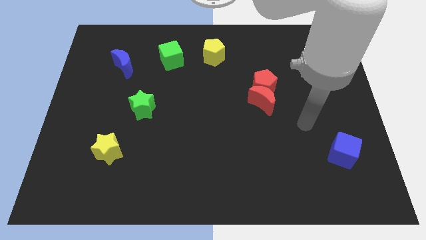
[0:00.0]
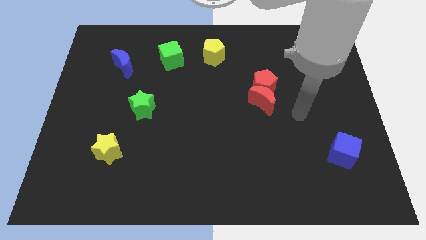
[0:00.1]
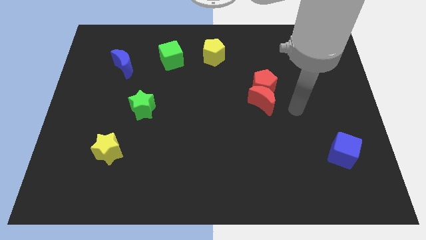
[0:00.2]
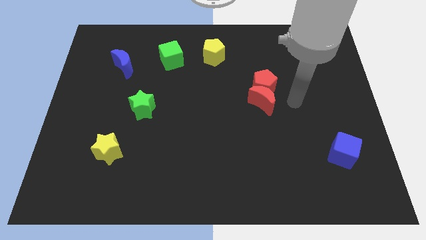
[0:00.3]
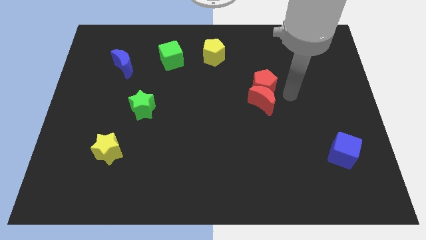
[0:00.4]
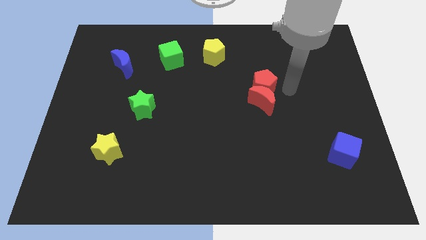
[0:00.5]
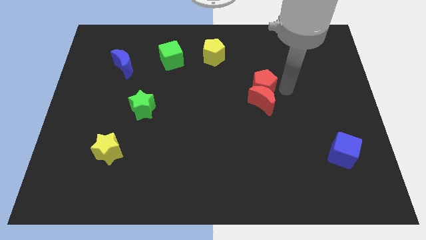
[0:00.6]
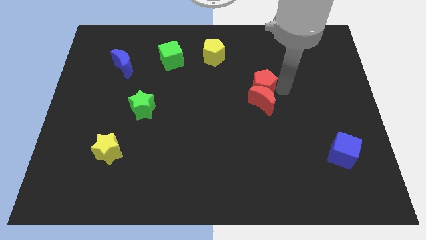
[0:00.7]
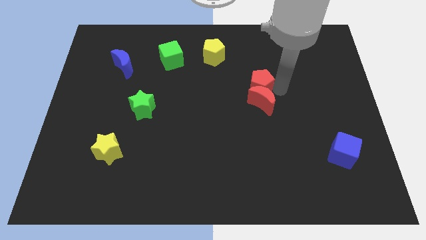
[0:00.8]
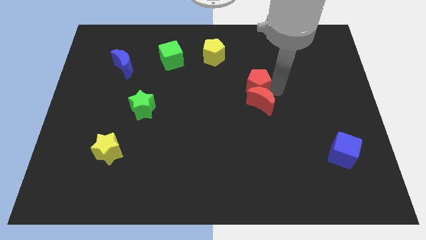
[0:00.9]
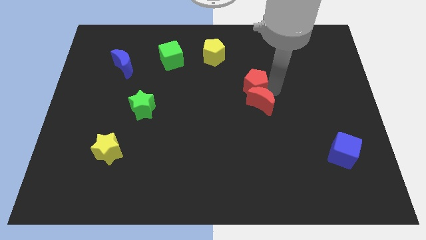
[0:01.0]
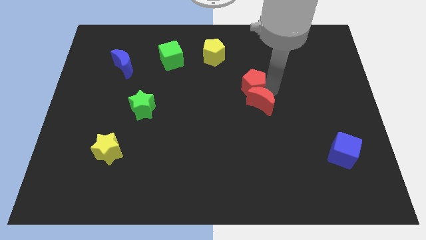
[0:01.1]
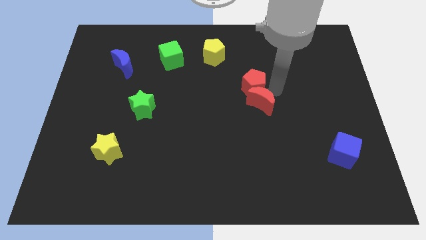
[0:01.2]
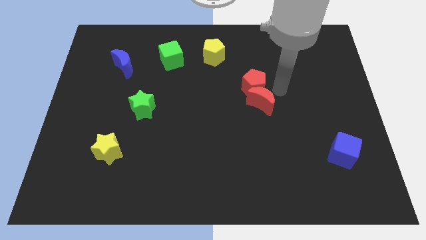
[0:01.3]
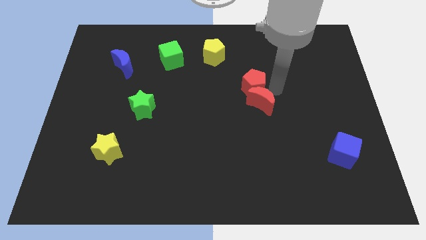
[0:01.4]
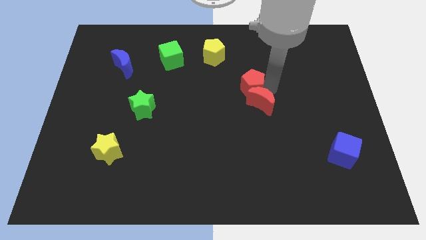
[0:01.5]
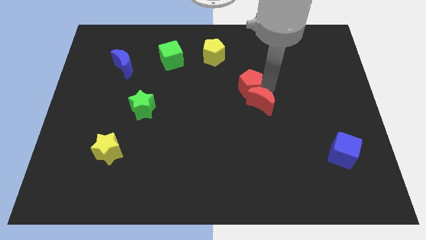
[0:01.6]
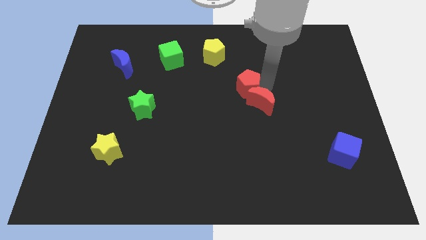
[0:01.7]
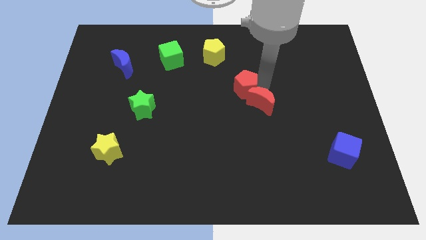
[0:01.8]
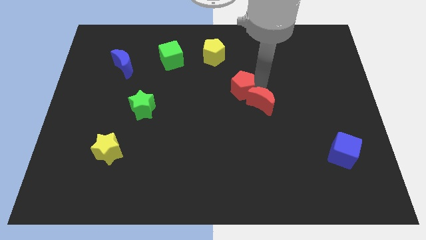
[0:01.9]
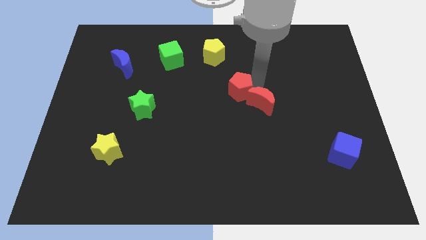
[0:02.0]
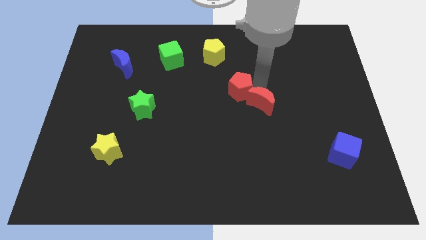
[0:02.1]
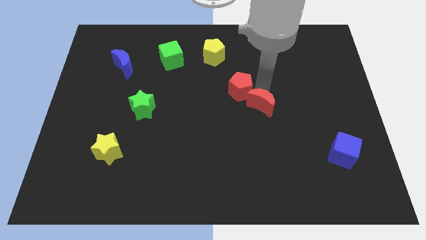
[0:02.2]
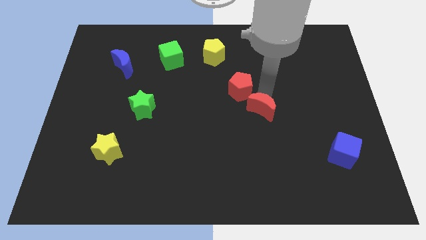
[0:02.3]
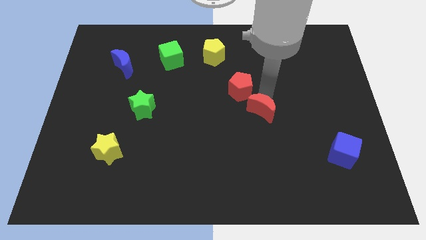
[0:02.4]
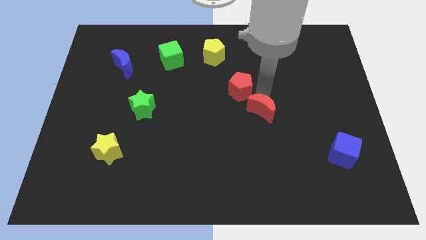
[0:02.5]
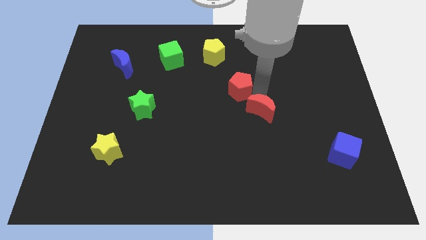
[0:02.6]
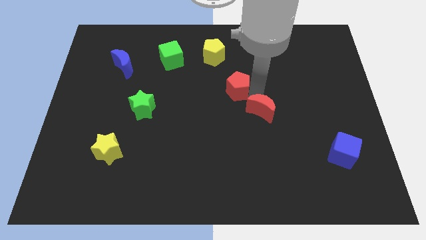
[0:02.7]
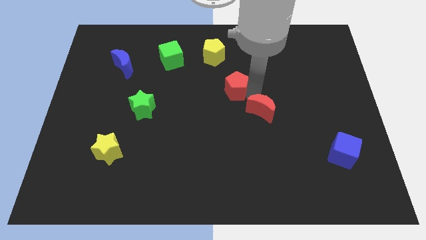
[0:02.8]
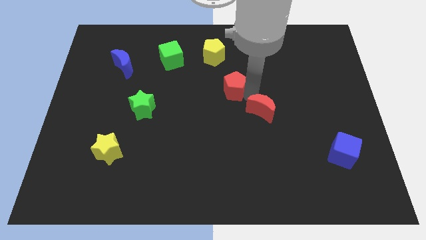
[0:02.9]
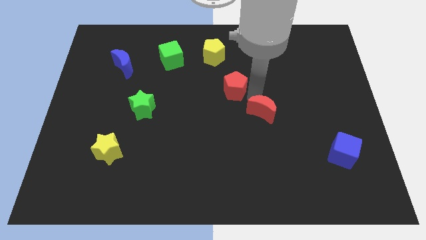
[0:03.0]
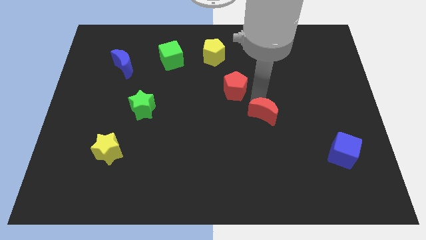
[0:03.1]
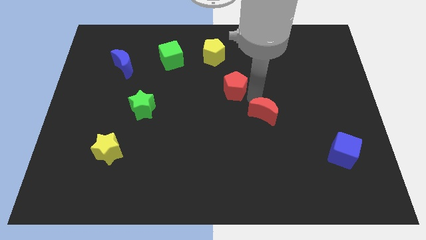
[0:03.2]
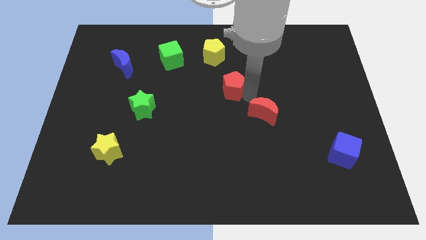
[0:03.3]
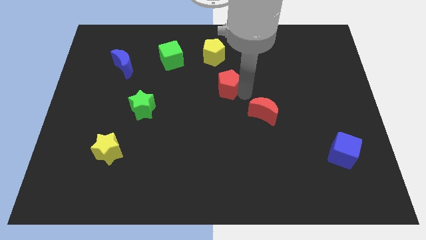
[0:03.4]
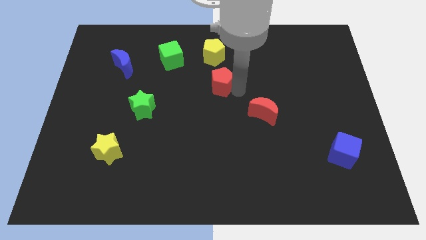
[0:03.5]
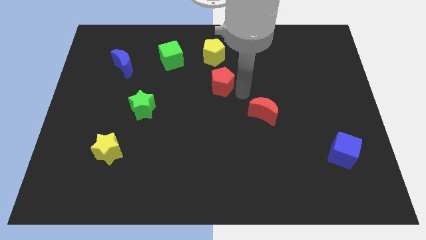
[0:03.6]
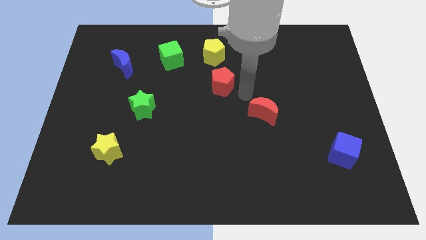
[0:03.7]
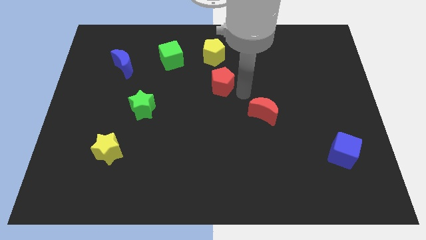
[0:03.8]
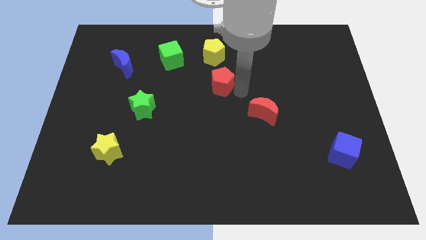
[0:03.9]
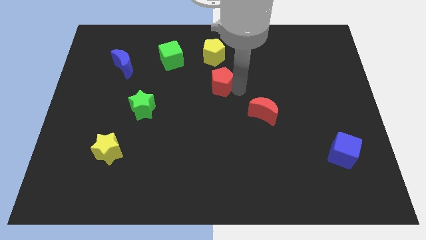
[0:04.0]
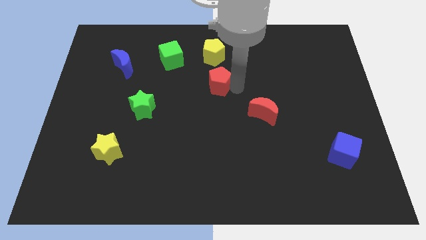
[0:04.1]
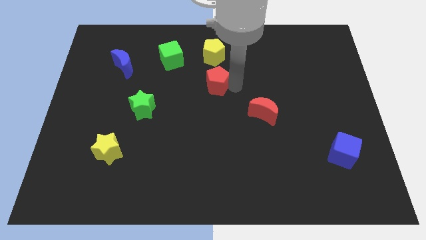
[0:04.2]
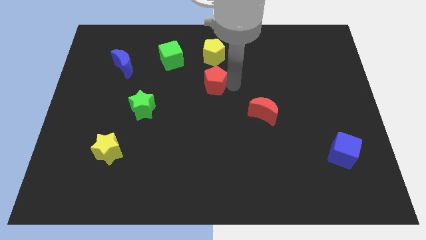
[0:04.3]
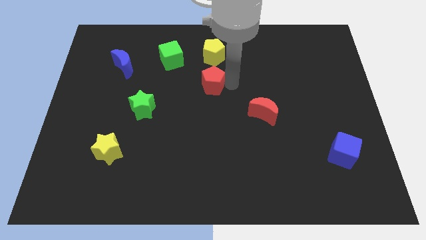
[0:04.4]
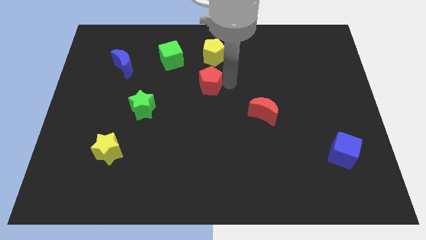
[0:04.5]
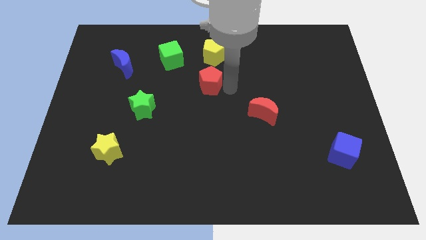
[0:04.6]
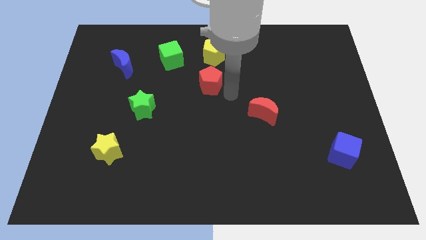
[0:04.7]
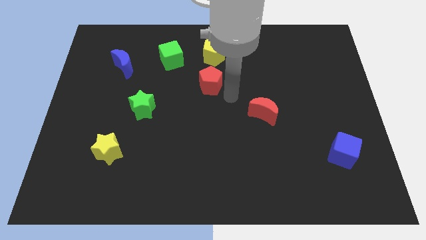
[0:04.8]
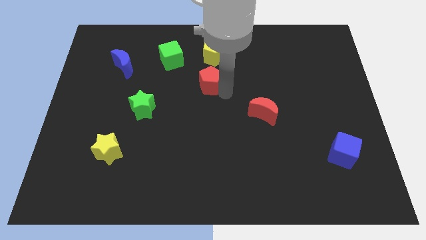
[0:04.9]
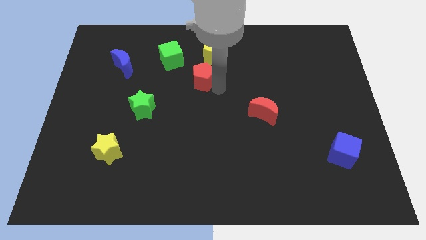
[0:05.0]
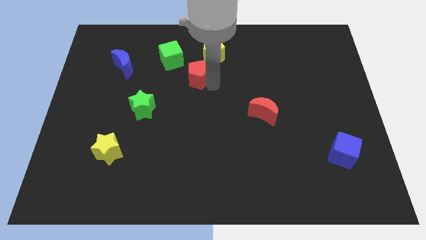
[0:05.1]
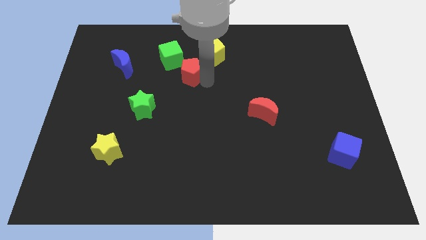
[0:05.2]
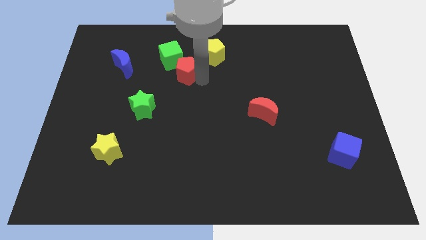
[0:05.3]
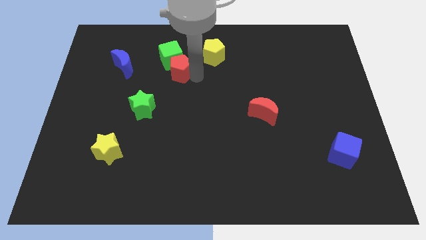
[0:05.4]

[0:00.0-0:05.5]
move the red pentagon just right of the blue moon

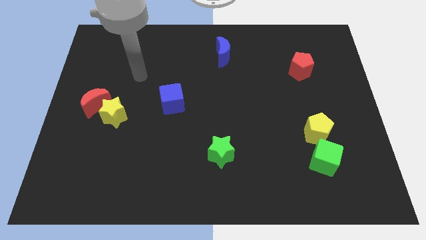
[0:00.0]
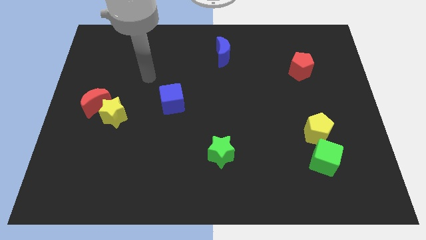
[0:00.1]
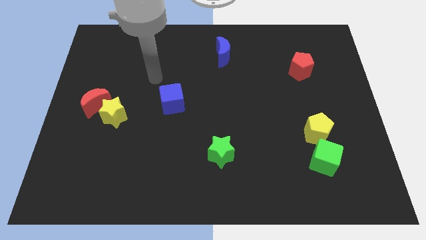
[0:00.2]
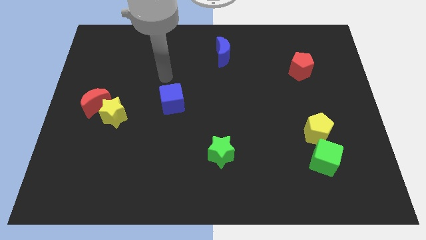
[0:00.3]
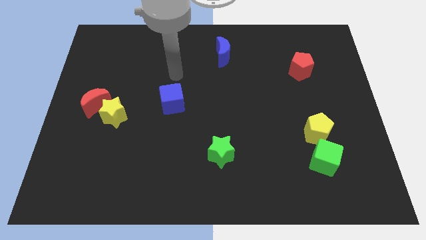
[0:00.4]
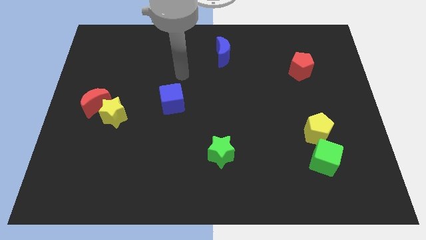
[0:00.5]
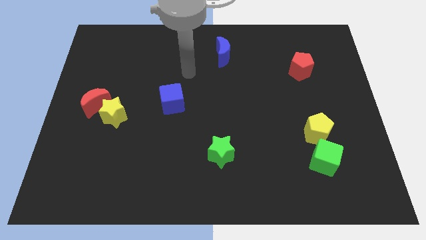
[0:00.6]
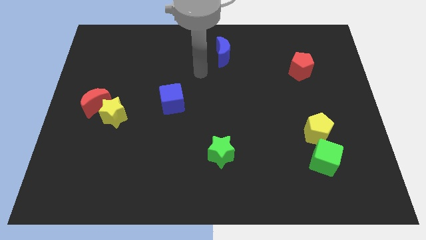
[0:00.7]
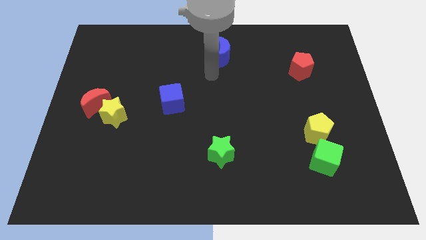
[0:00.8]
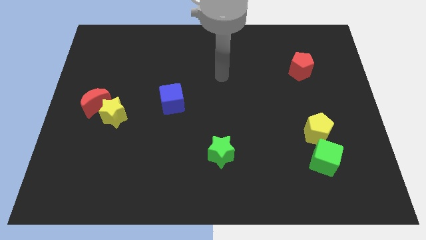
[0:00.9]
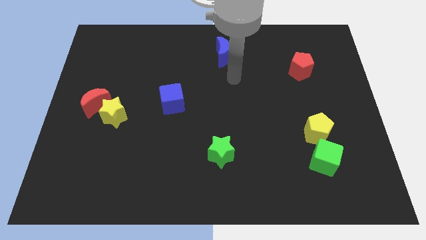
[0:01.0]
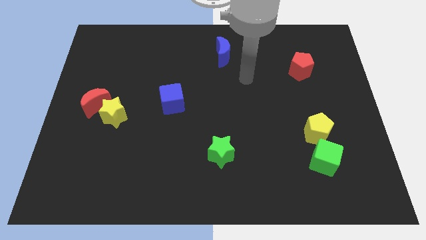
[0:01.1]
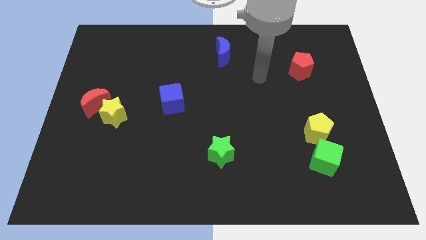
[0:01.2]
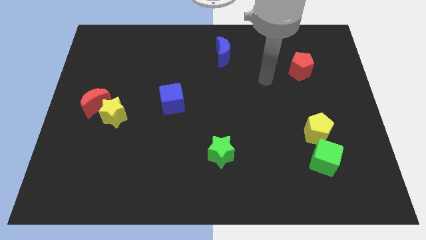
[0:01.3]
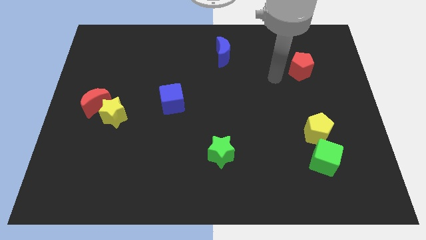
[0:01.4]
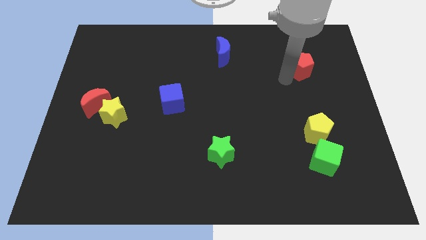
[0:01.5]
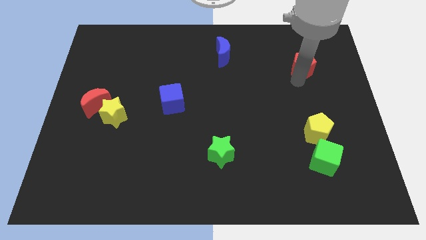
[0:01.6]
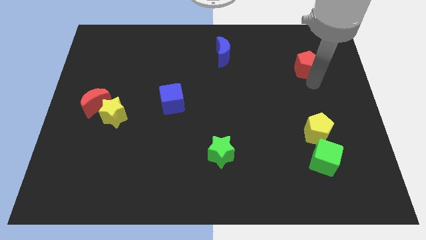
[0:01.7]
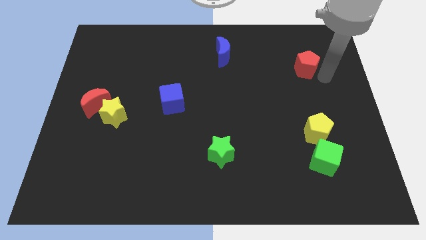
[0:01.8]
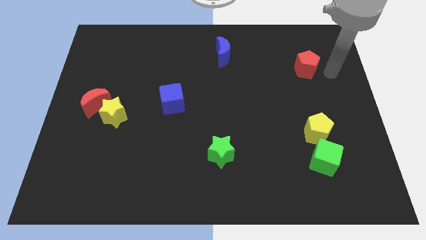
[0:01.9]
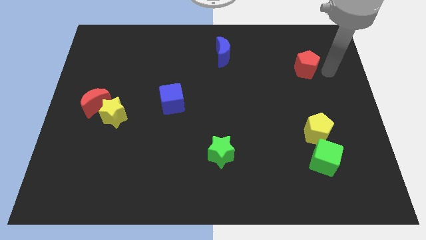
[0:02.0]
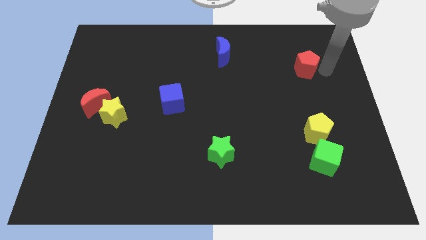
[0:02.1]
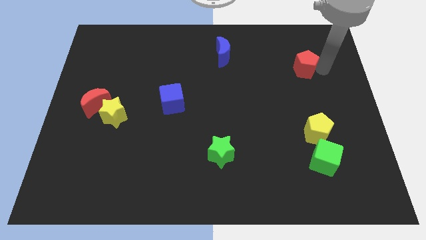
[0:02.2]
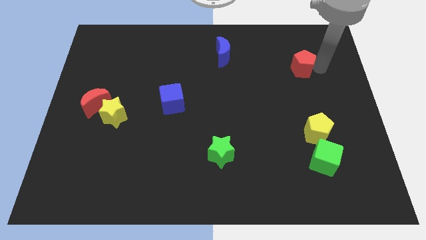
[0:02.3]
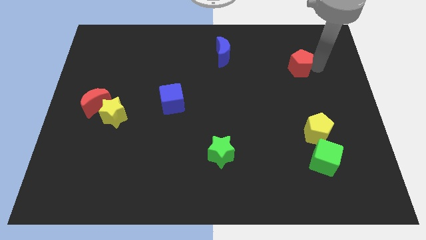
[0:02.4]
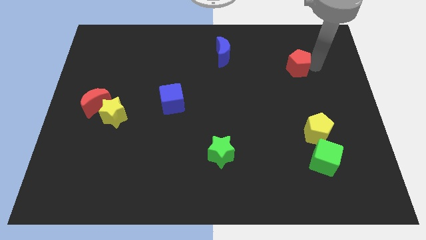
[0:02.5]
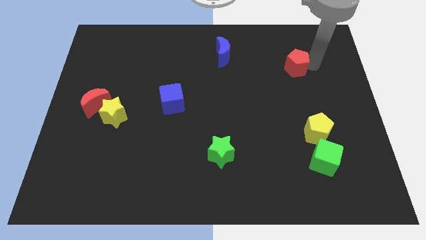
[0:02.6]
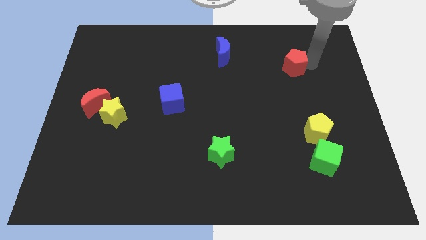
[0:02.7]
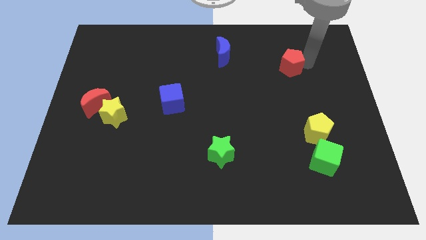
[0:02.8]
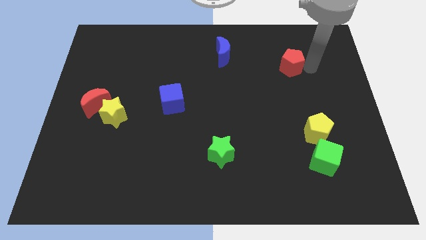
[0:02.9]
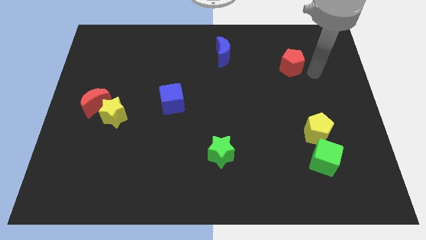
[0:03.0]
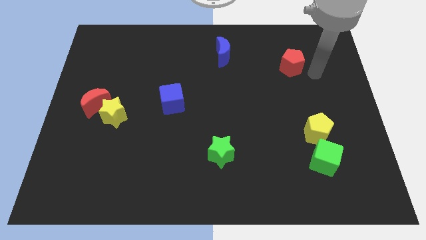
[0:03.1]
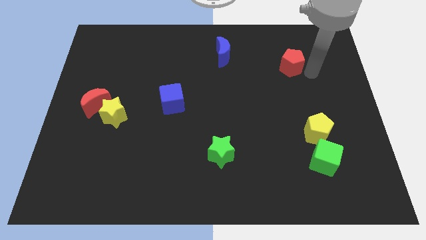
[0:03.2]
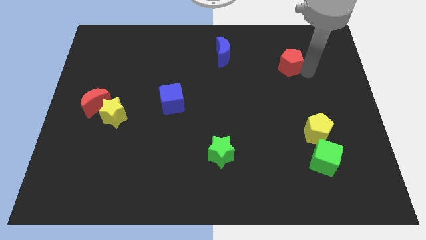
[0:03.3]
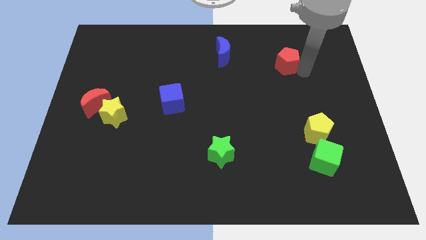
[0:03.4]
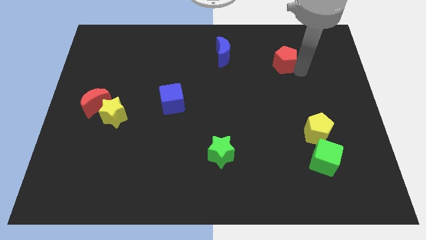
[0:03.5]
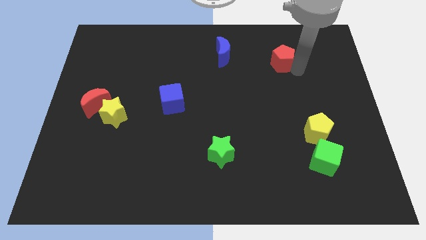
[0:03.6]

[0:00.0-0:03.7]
move the red pentagon right of the blue moon
